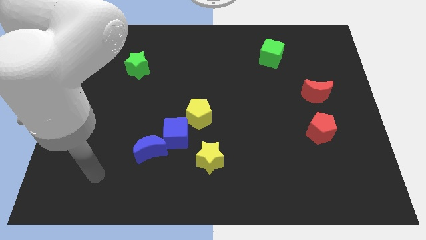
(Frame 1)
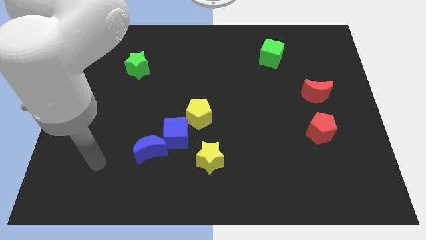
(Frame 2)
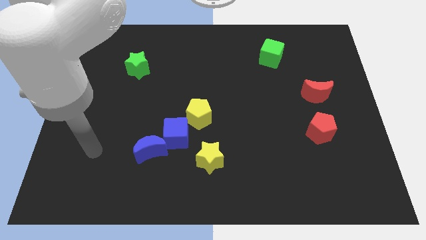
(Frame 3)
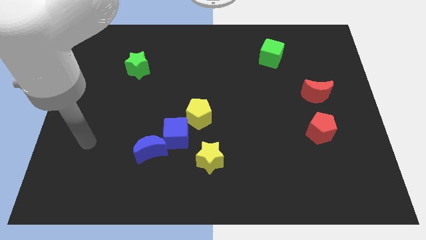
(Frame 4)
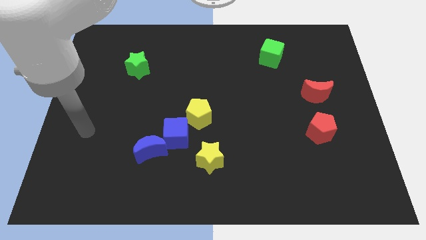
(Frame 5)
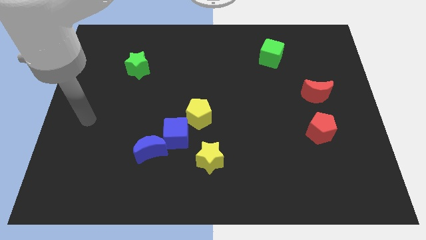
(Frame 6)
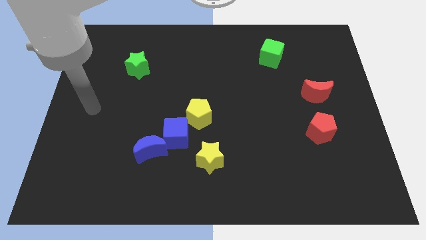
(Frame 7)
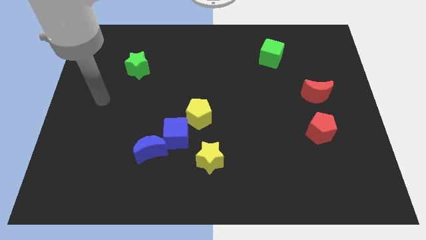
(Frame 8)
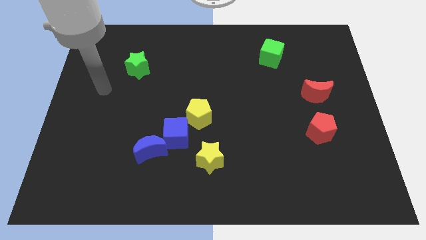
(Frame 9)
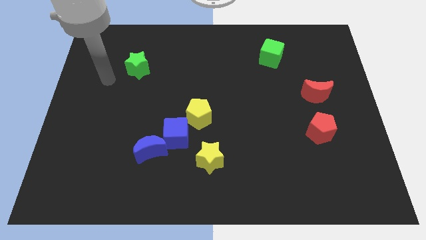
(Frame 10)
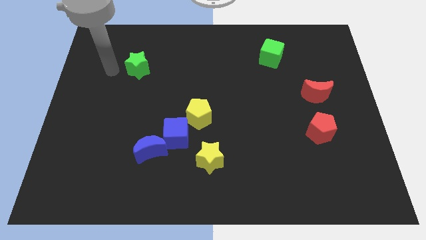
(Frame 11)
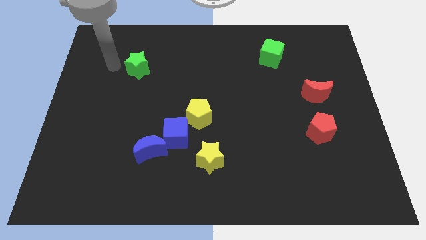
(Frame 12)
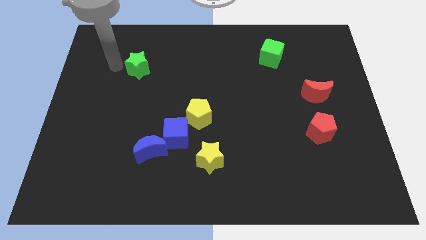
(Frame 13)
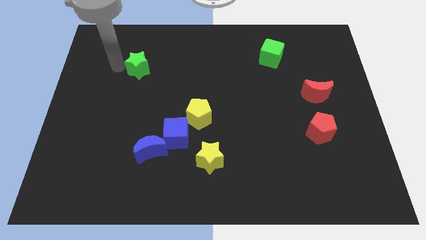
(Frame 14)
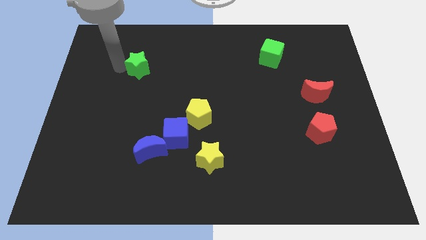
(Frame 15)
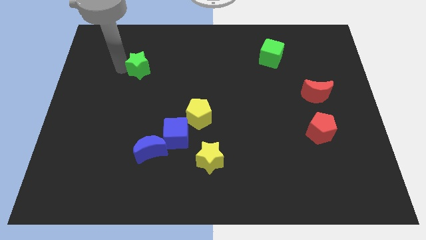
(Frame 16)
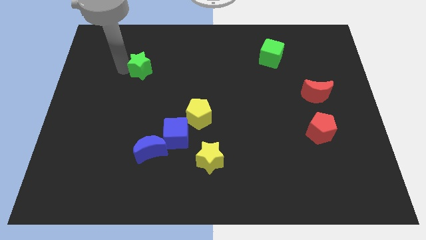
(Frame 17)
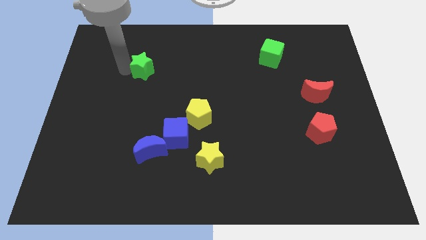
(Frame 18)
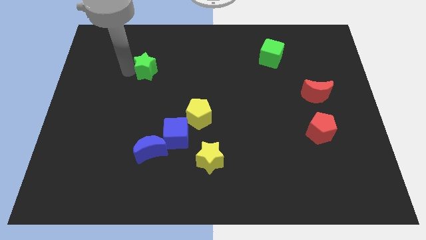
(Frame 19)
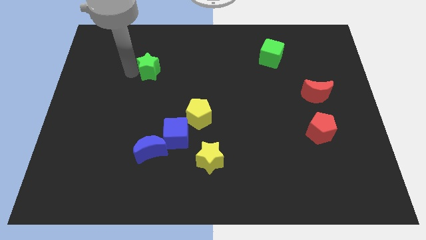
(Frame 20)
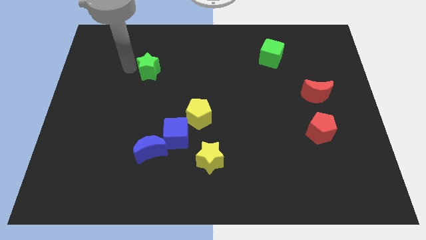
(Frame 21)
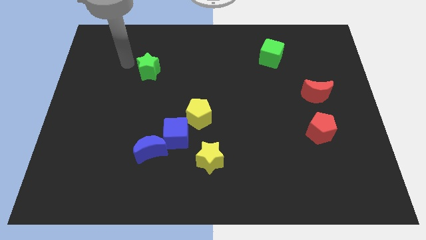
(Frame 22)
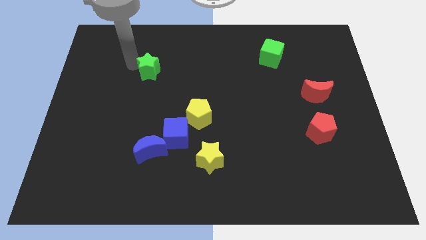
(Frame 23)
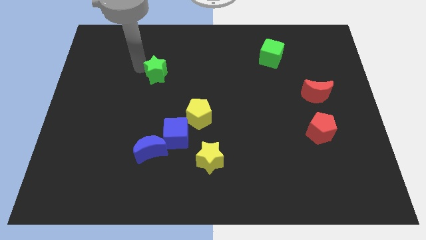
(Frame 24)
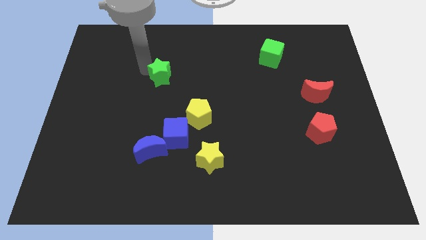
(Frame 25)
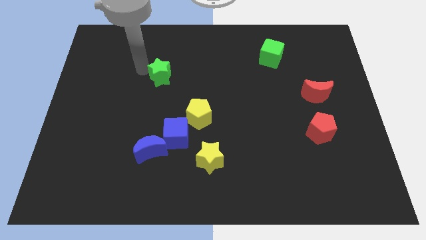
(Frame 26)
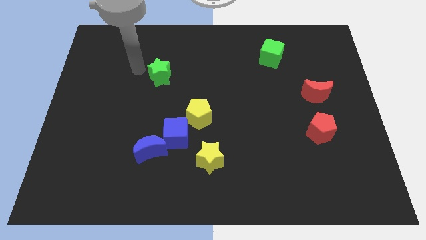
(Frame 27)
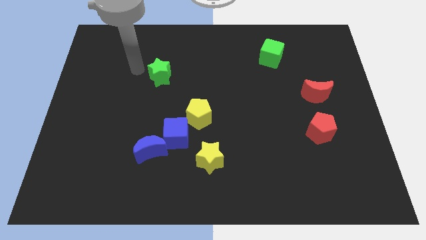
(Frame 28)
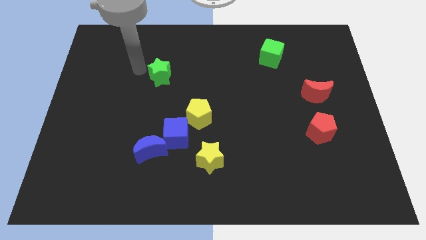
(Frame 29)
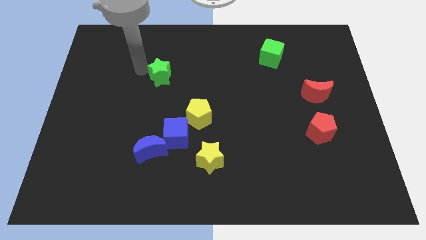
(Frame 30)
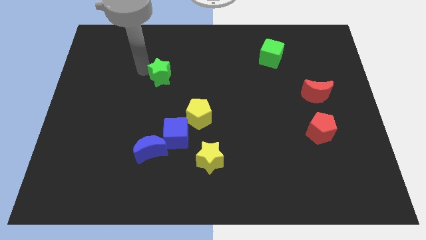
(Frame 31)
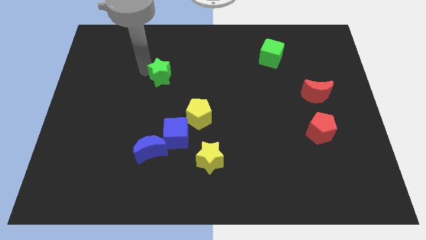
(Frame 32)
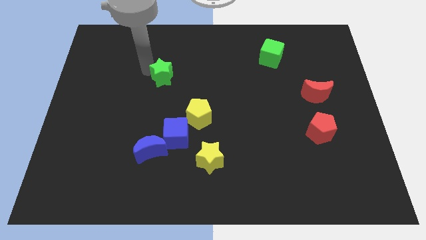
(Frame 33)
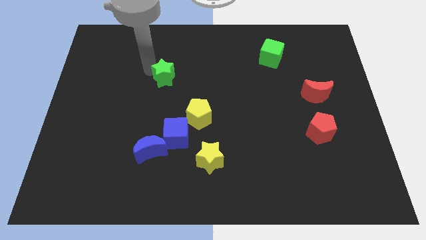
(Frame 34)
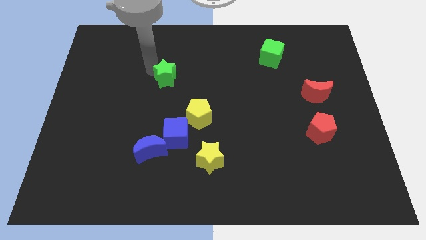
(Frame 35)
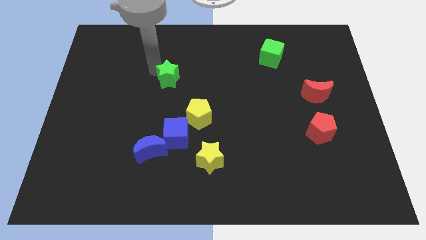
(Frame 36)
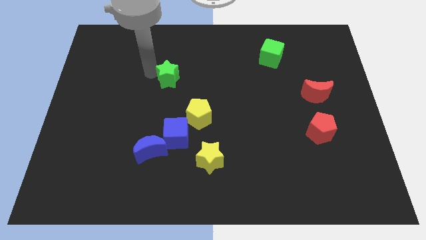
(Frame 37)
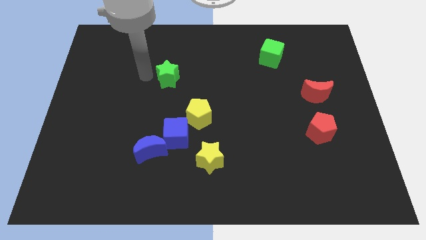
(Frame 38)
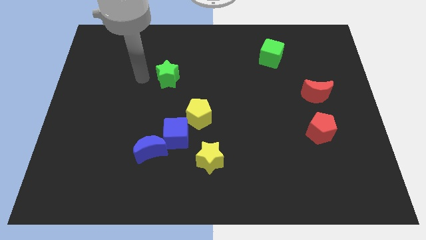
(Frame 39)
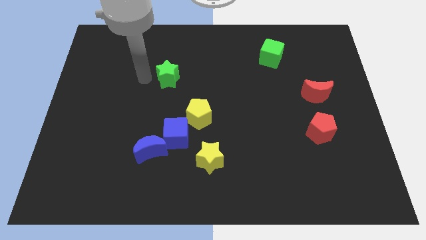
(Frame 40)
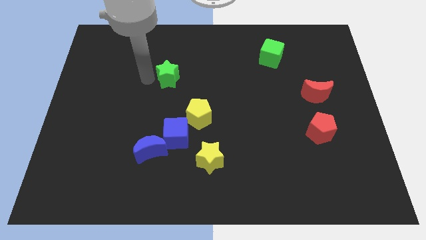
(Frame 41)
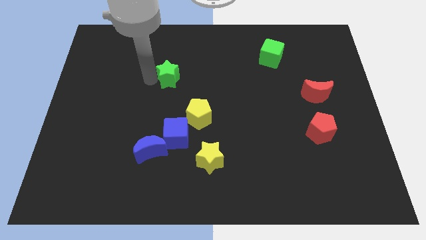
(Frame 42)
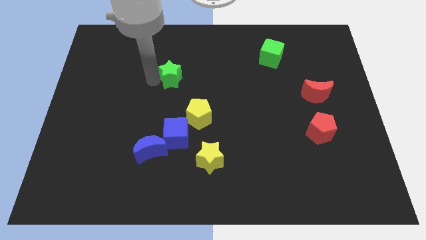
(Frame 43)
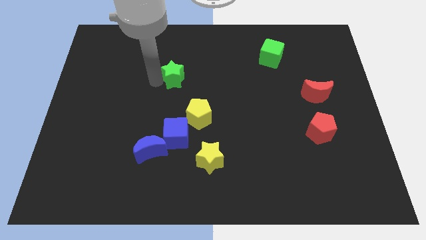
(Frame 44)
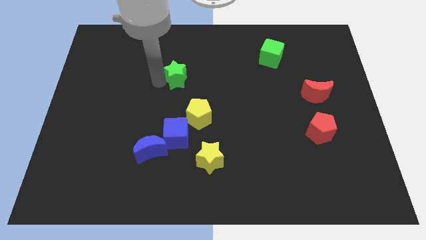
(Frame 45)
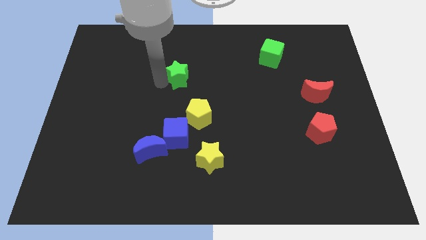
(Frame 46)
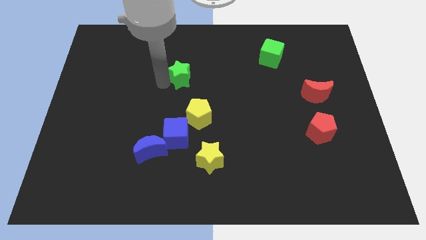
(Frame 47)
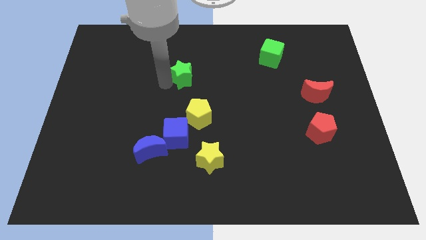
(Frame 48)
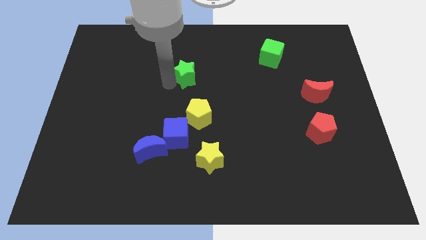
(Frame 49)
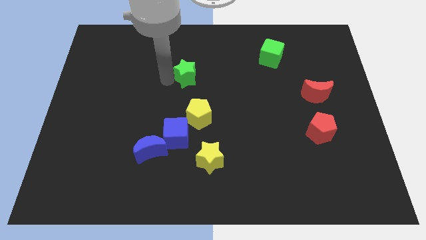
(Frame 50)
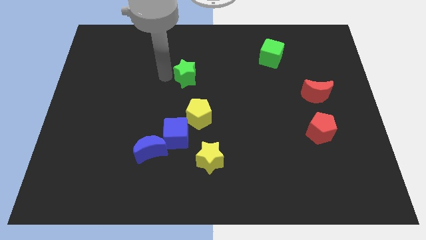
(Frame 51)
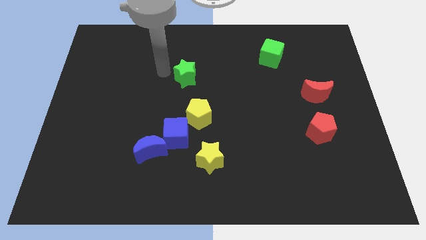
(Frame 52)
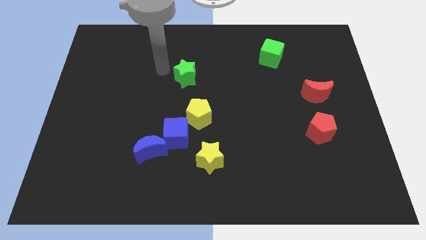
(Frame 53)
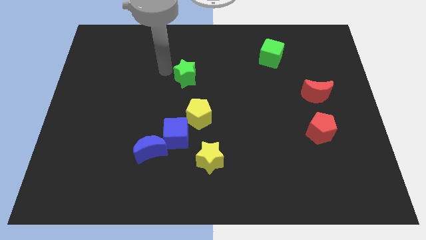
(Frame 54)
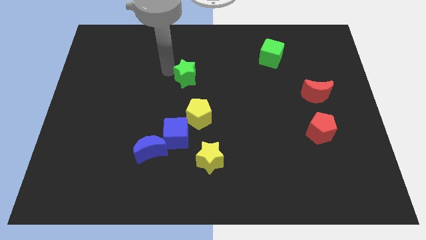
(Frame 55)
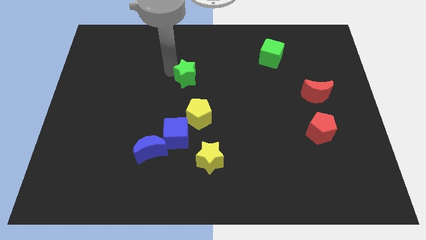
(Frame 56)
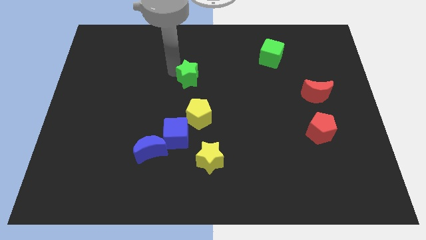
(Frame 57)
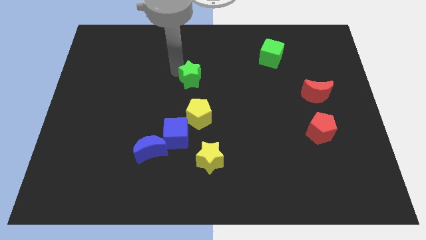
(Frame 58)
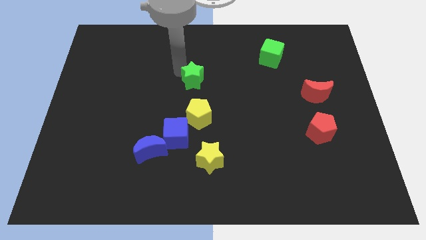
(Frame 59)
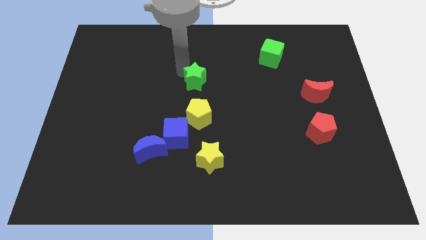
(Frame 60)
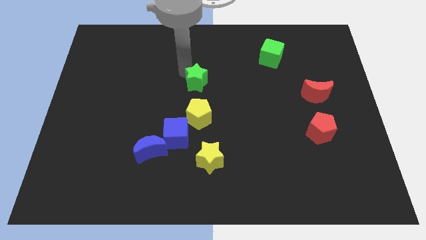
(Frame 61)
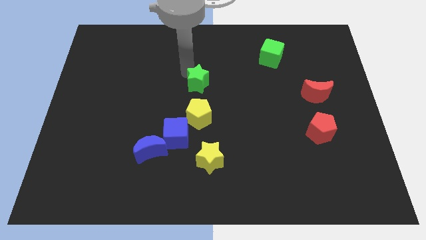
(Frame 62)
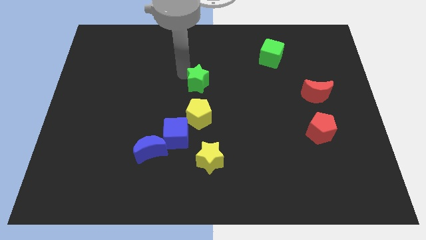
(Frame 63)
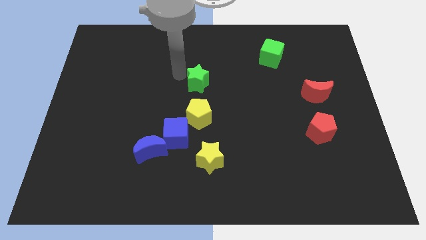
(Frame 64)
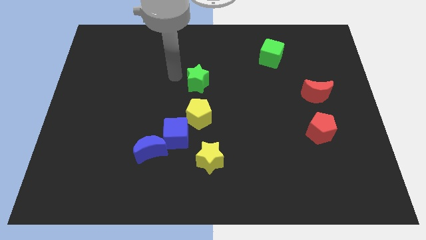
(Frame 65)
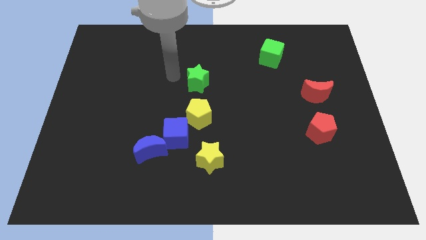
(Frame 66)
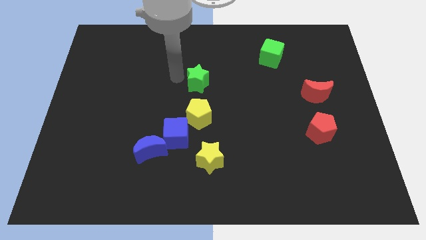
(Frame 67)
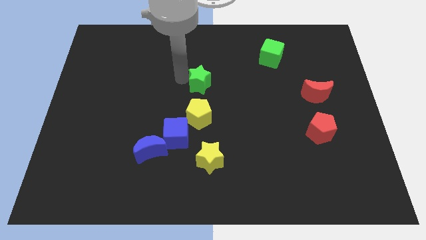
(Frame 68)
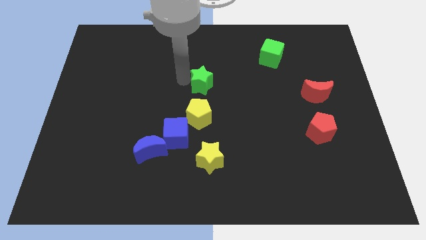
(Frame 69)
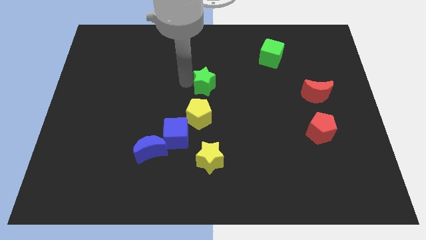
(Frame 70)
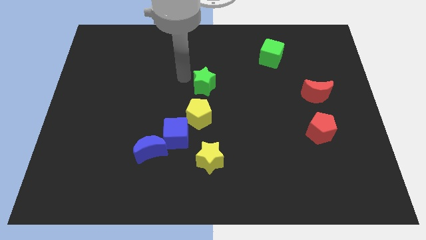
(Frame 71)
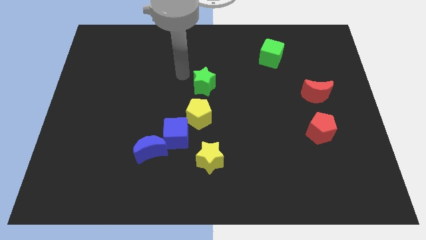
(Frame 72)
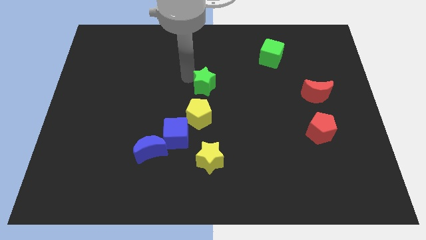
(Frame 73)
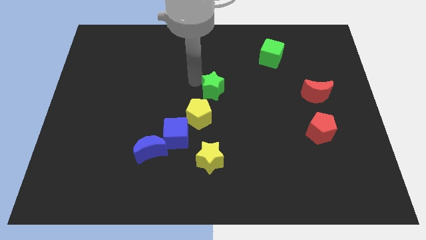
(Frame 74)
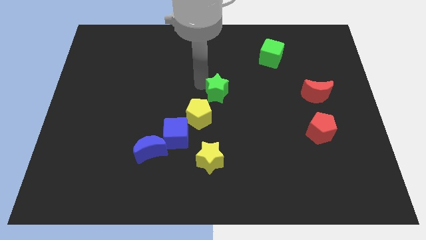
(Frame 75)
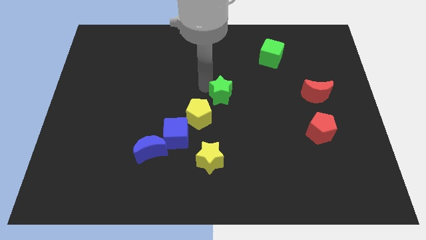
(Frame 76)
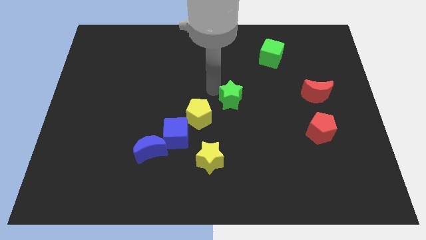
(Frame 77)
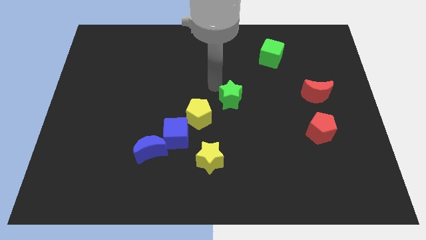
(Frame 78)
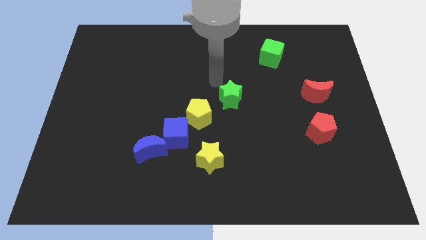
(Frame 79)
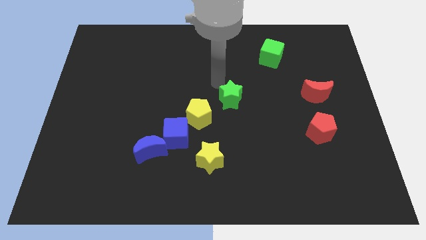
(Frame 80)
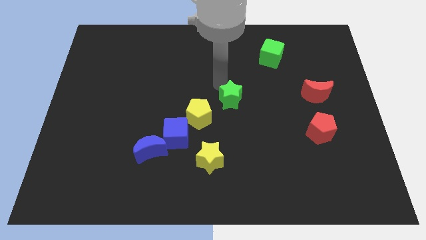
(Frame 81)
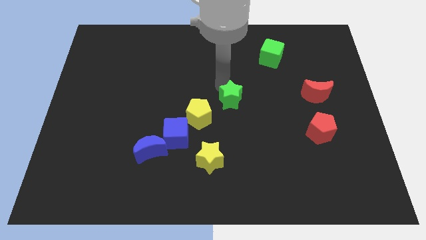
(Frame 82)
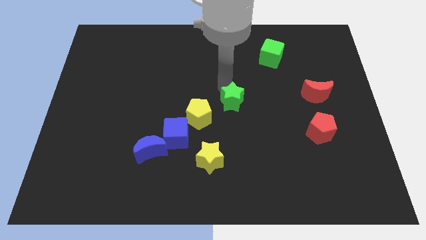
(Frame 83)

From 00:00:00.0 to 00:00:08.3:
push the green star to the right of the yellow pentagon
